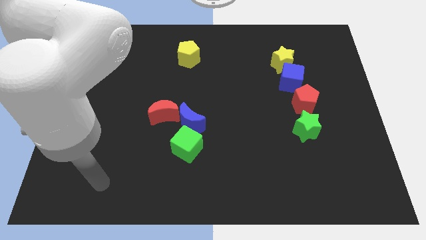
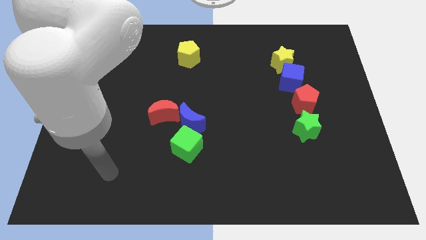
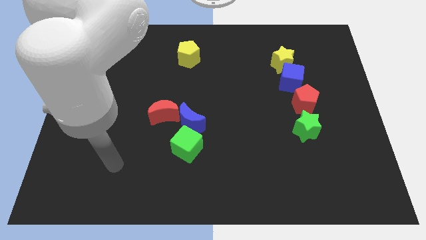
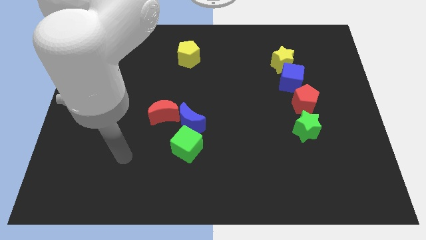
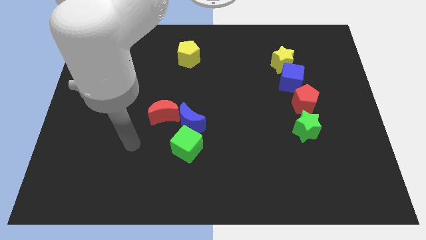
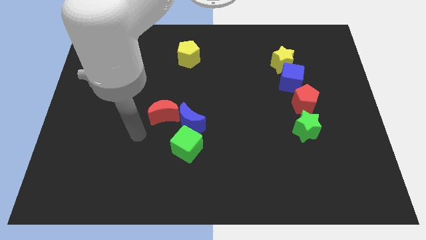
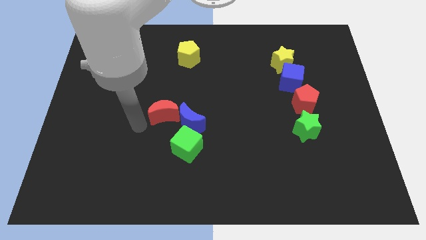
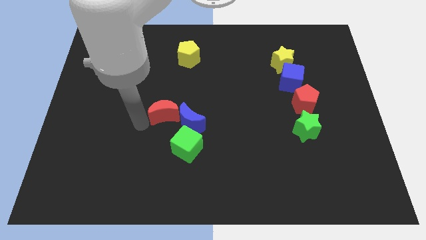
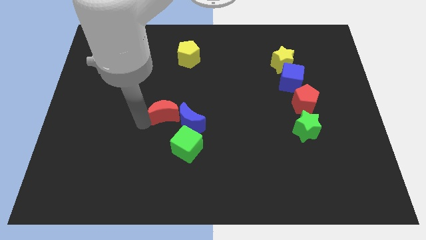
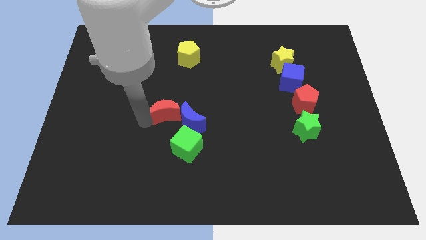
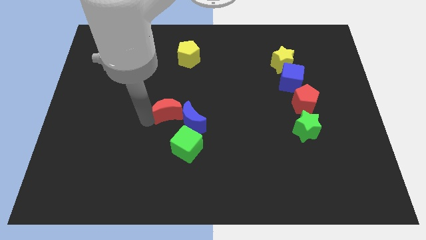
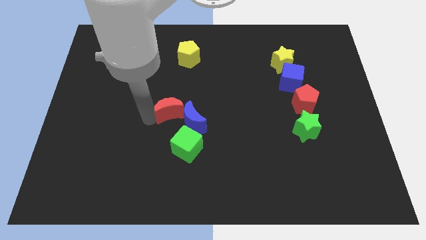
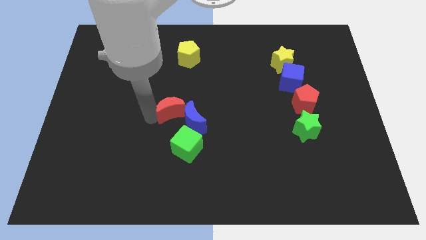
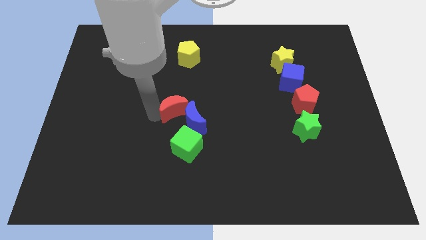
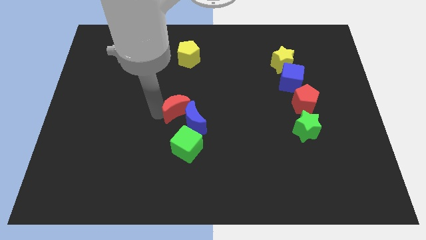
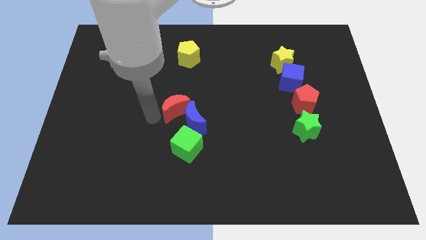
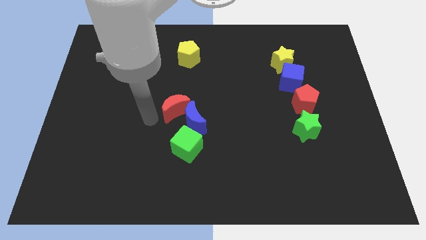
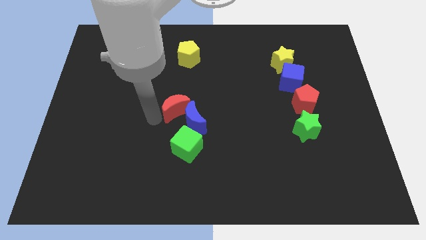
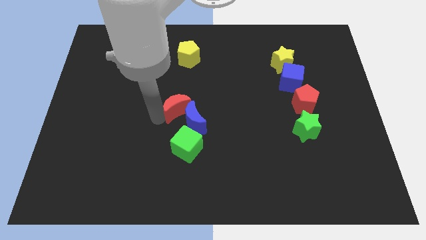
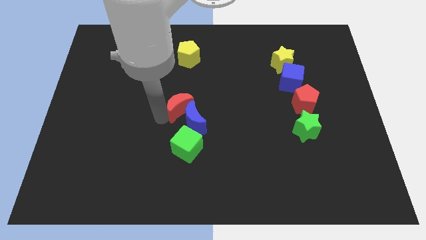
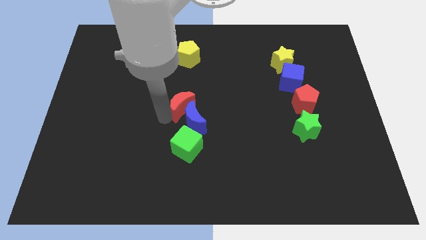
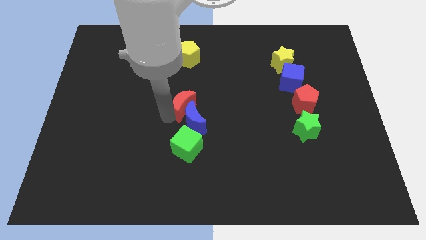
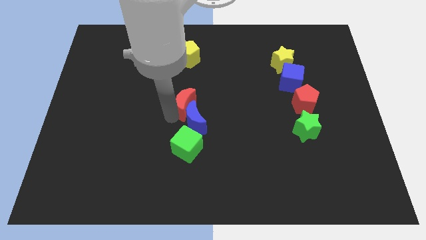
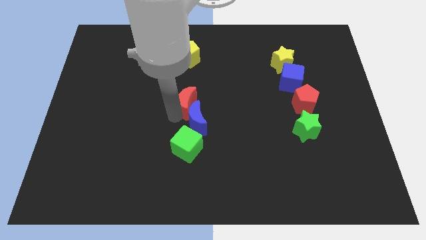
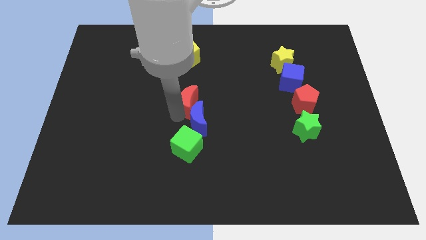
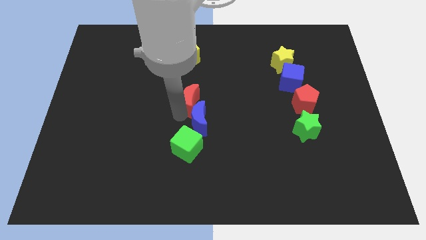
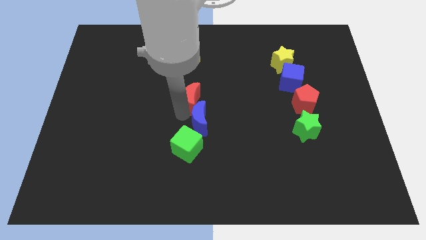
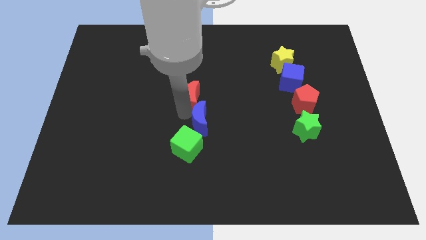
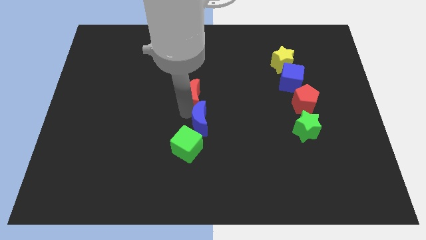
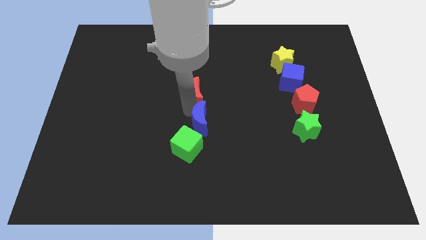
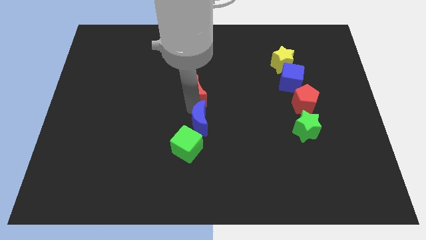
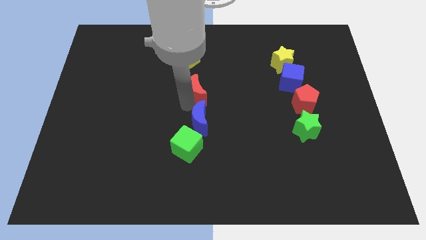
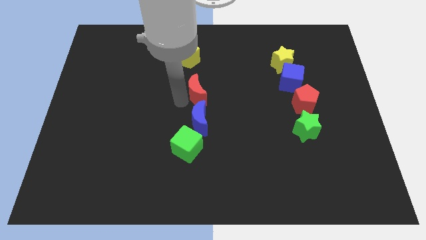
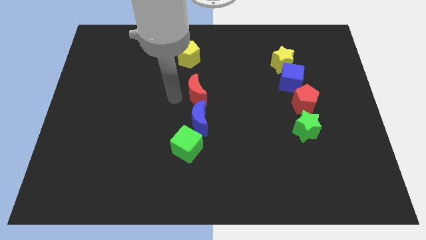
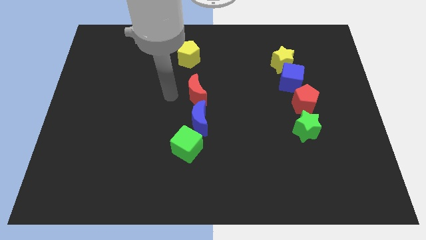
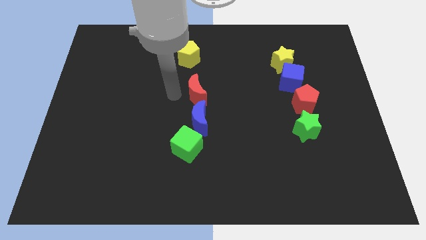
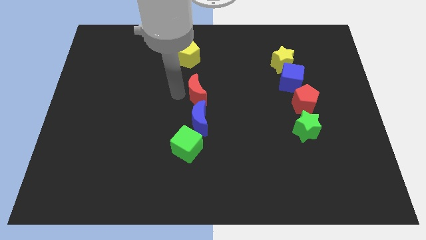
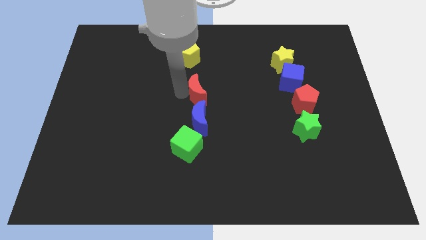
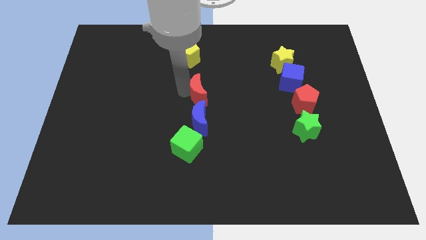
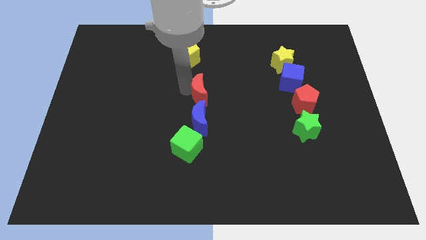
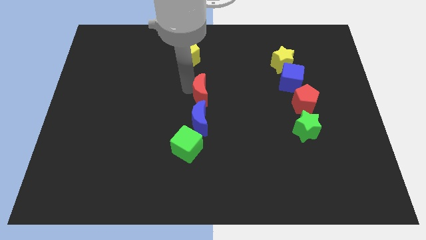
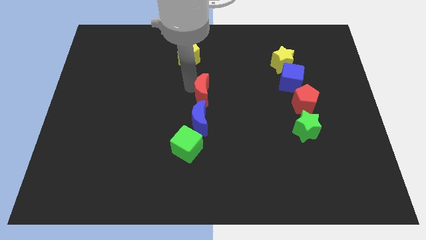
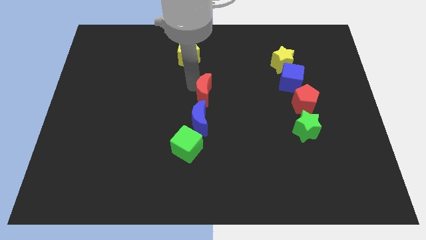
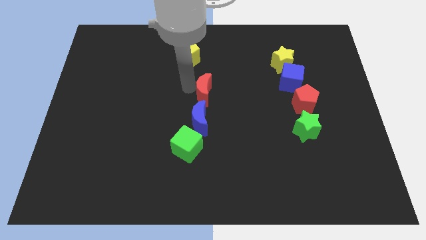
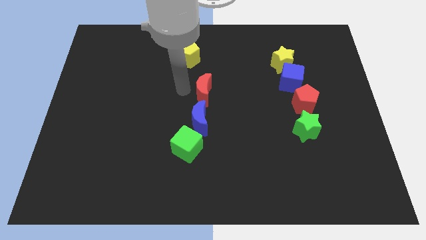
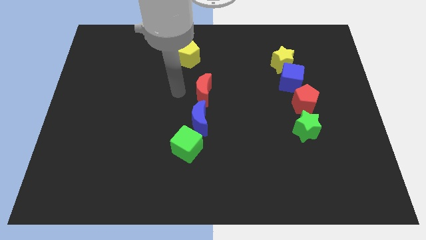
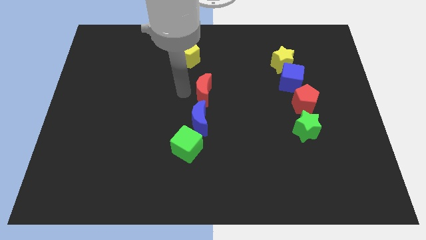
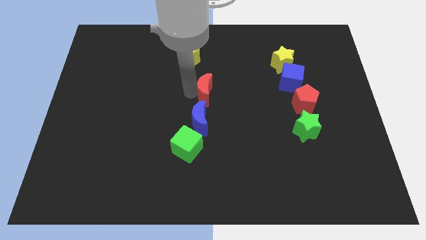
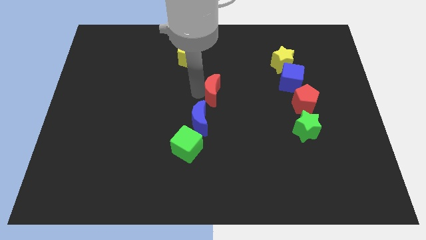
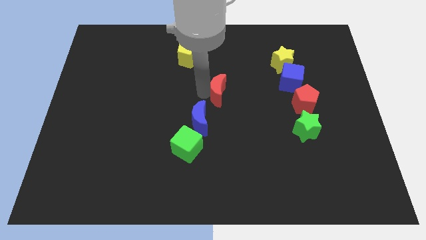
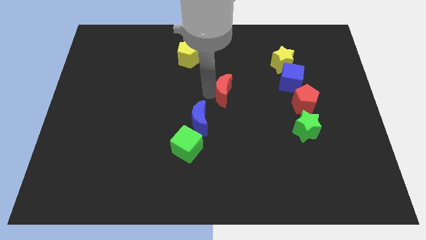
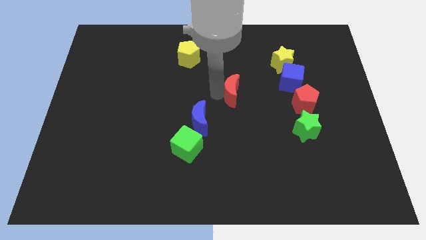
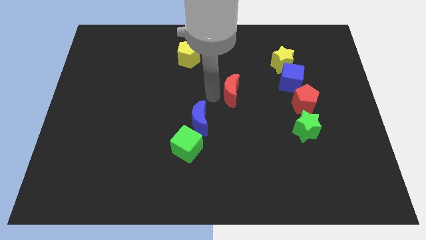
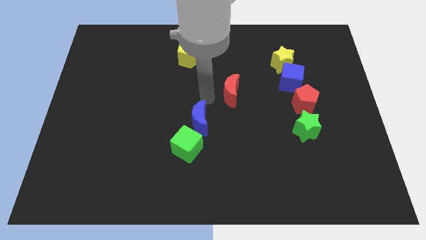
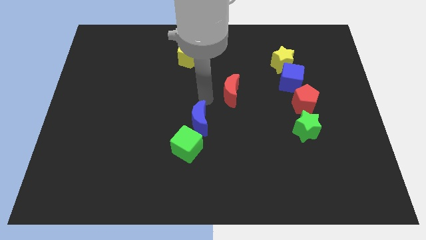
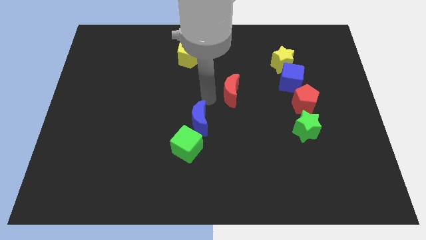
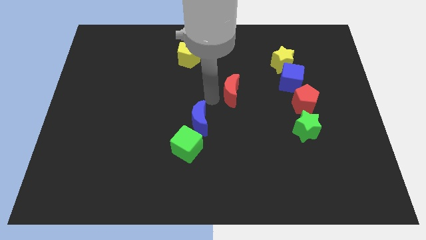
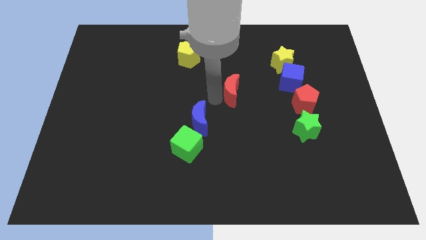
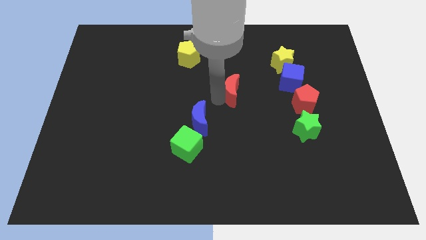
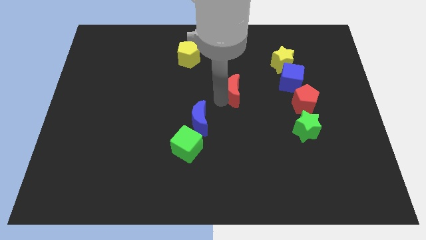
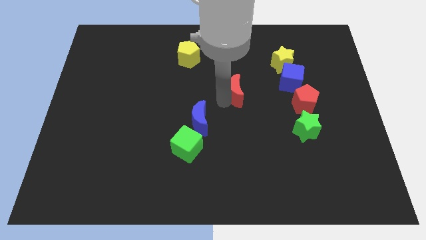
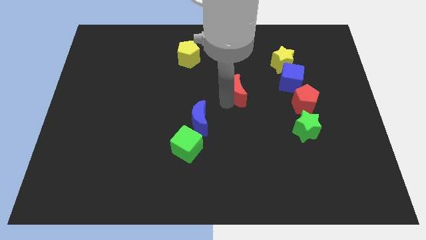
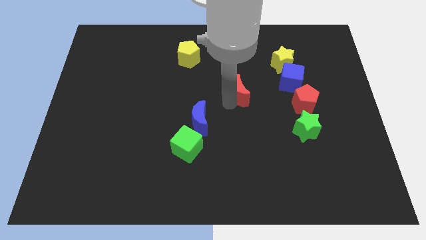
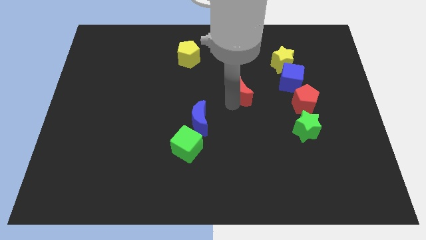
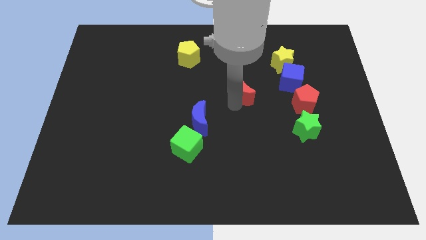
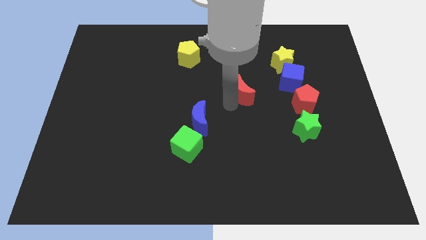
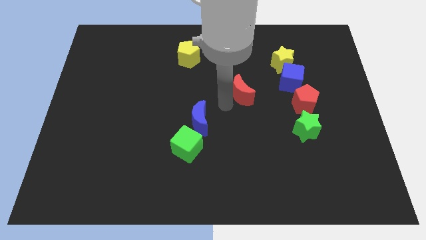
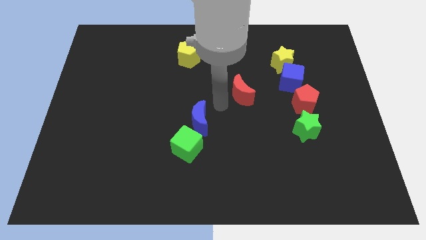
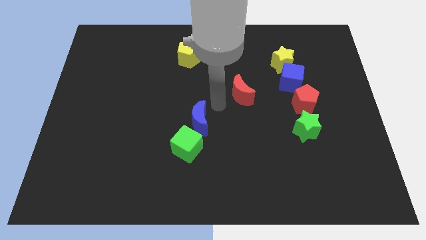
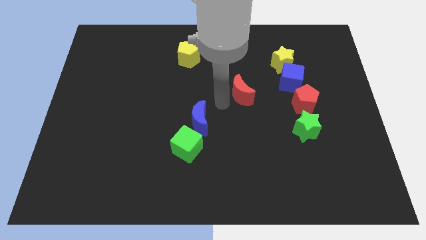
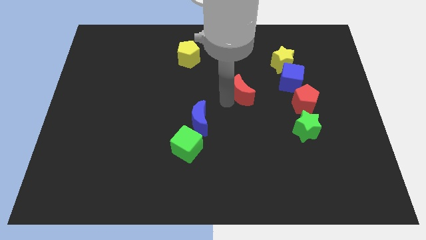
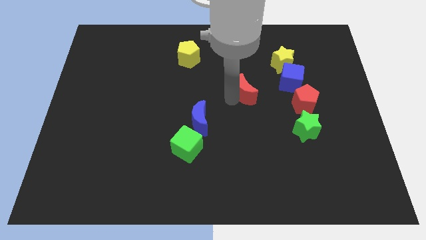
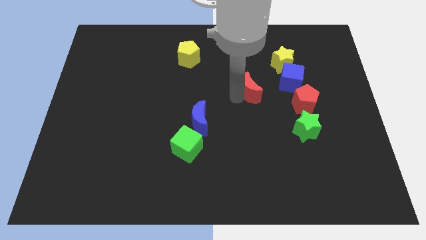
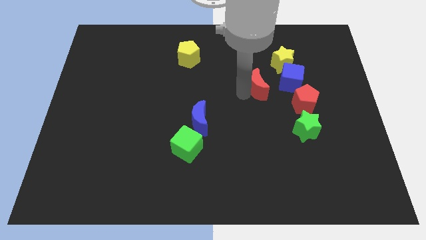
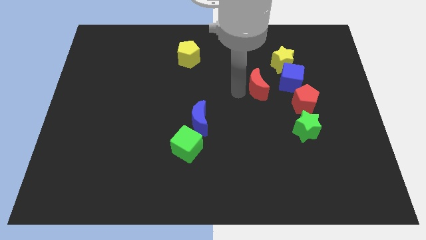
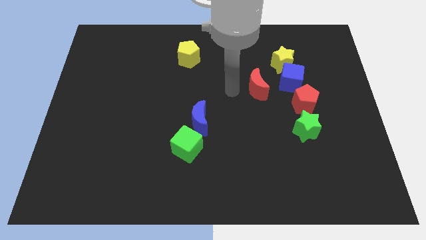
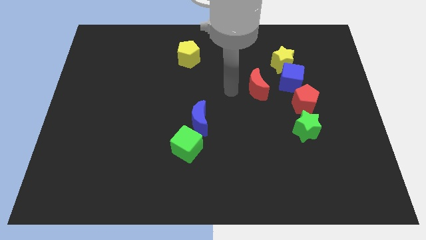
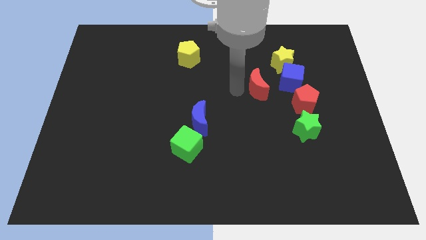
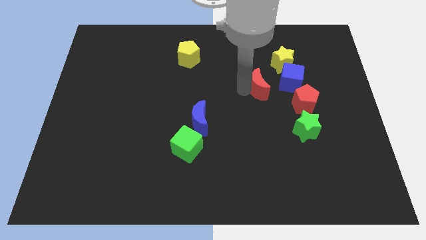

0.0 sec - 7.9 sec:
put the red moon diagonally up and to the left of the red pentagon
